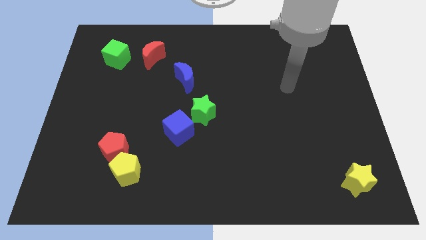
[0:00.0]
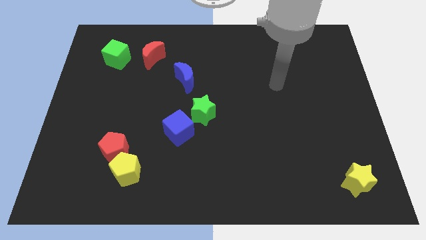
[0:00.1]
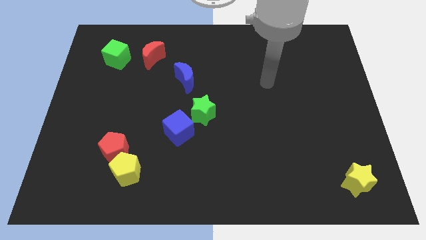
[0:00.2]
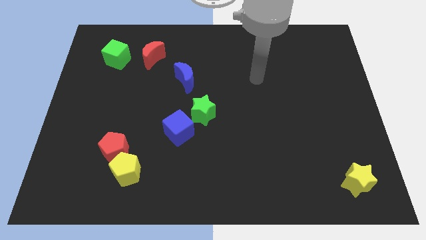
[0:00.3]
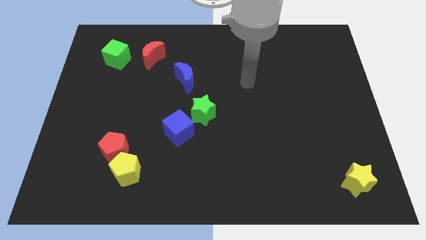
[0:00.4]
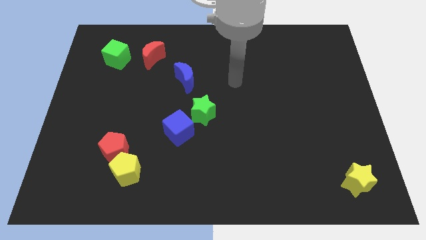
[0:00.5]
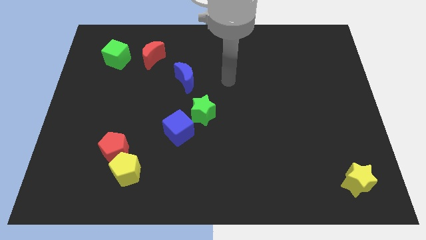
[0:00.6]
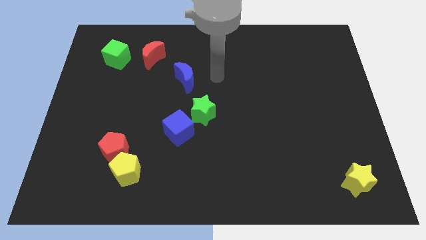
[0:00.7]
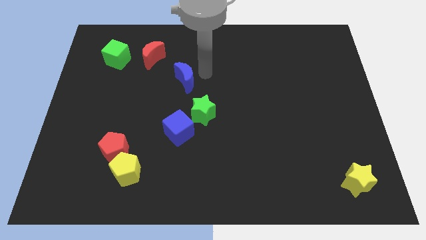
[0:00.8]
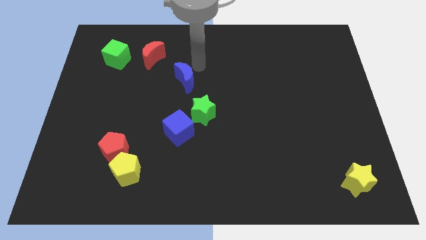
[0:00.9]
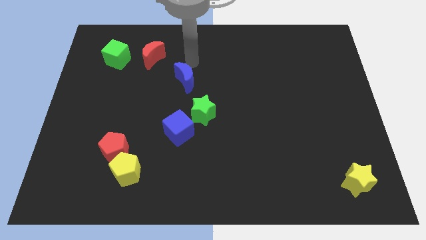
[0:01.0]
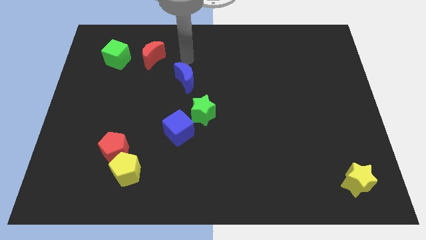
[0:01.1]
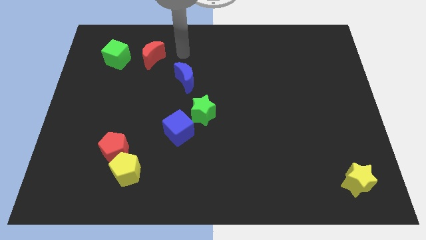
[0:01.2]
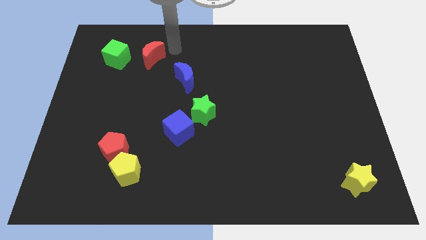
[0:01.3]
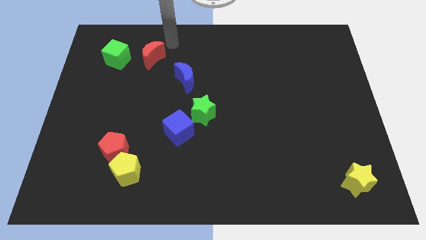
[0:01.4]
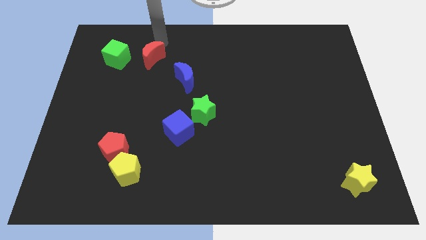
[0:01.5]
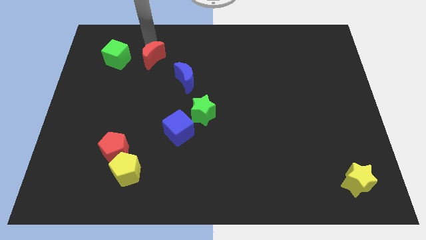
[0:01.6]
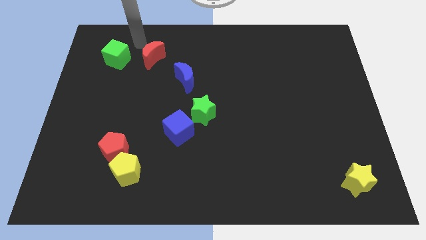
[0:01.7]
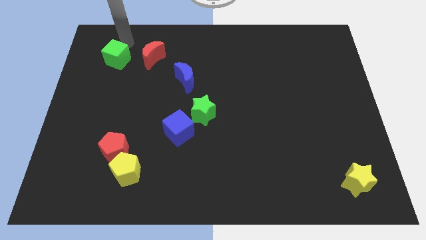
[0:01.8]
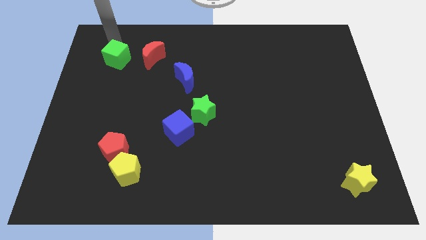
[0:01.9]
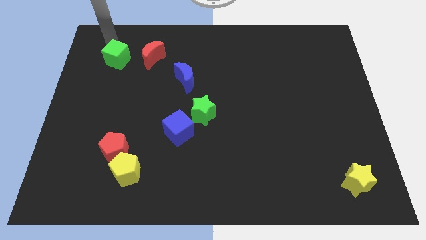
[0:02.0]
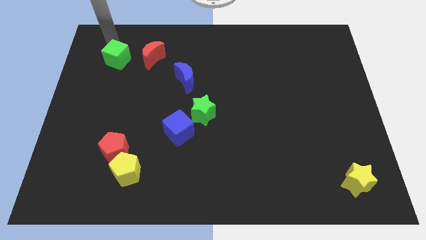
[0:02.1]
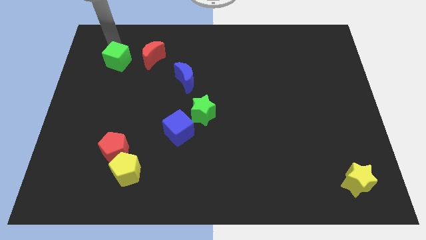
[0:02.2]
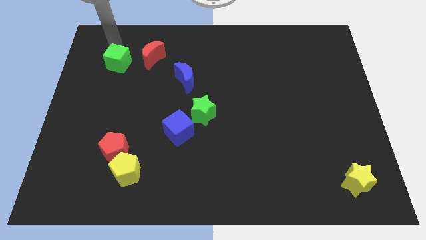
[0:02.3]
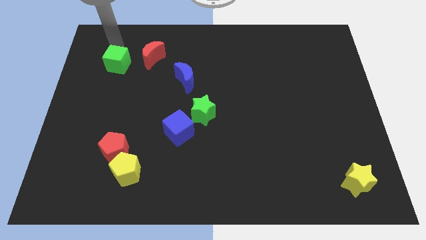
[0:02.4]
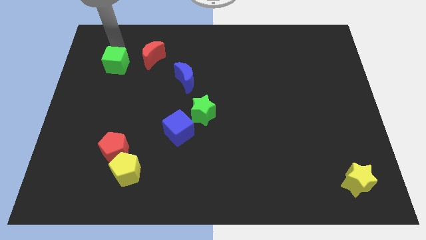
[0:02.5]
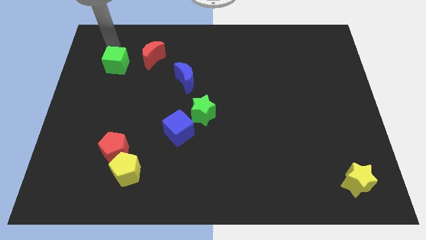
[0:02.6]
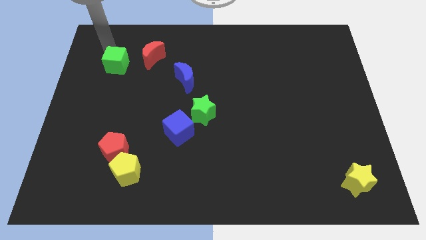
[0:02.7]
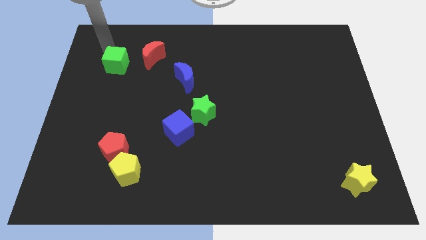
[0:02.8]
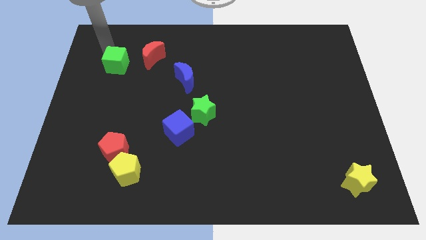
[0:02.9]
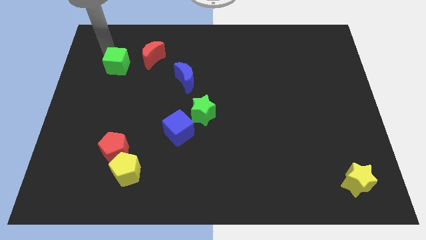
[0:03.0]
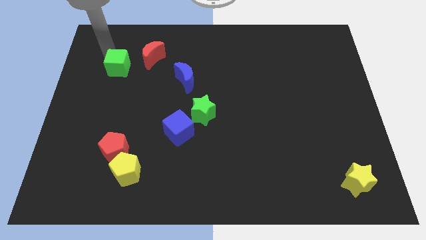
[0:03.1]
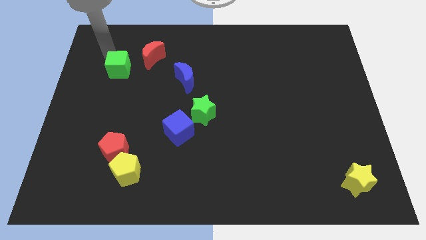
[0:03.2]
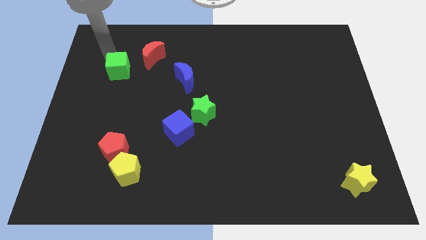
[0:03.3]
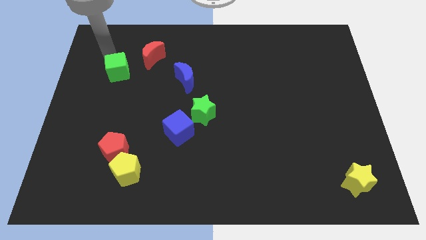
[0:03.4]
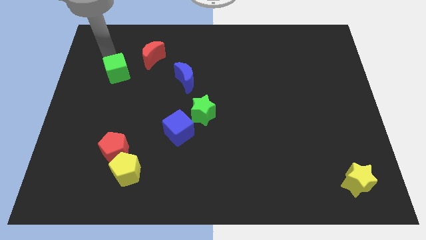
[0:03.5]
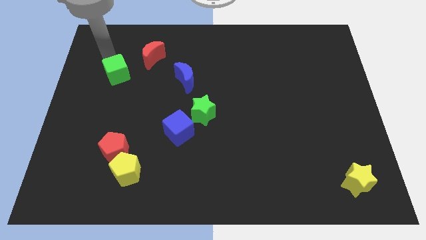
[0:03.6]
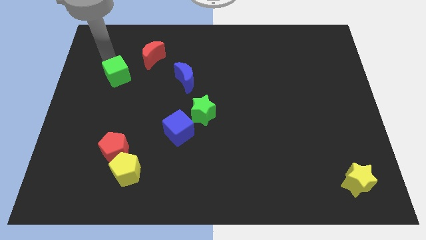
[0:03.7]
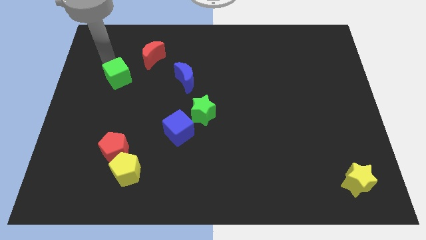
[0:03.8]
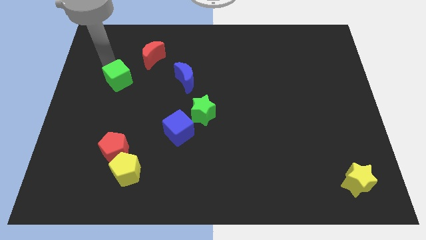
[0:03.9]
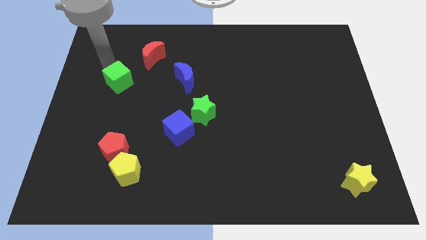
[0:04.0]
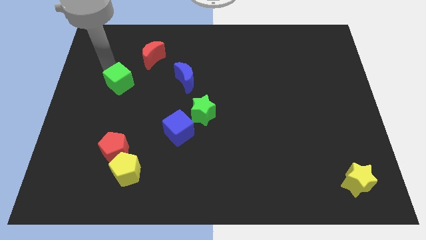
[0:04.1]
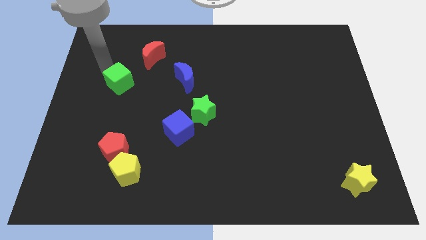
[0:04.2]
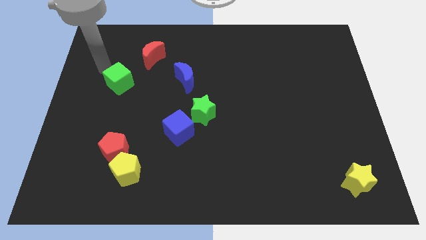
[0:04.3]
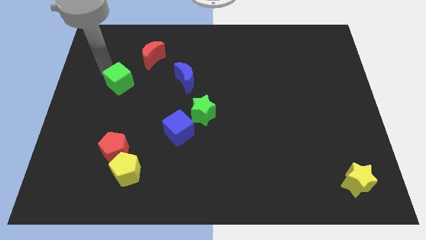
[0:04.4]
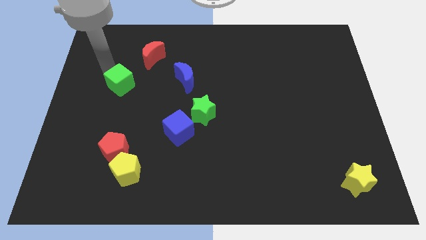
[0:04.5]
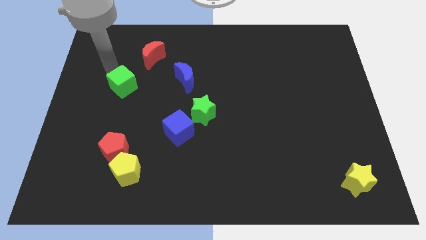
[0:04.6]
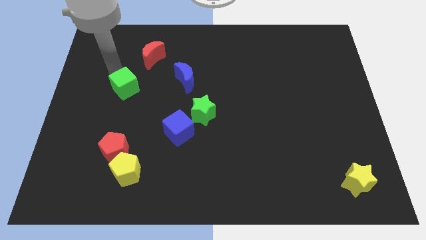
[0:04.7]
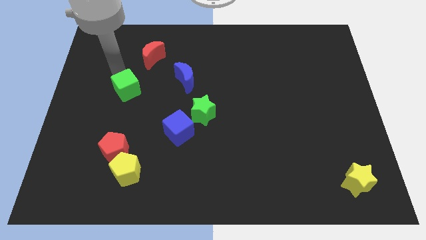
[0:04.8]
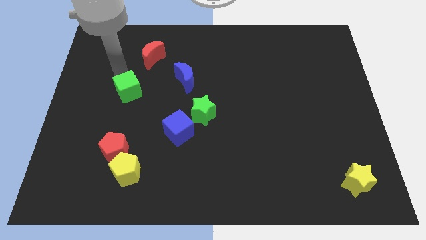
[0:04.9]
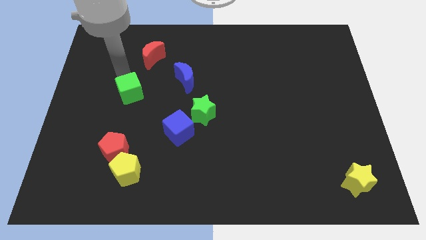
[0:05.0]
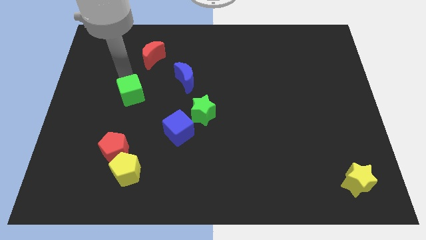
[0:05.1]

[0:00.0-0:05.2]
move the green cube to the top of the red pentagon

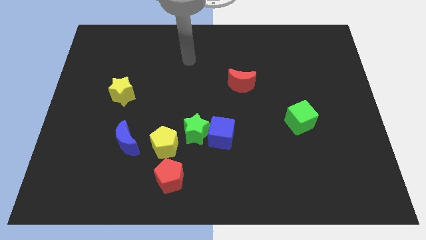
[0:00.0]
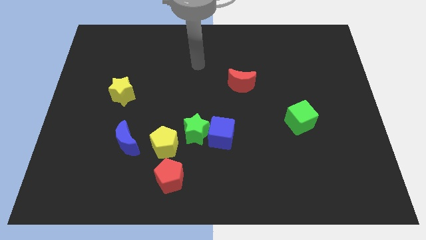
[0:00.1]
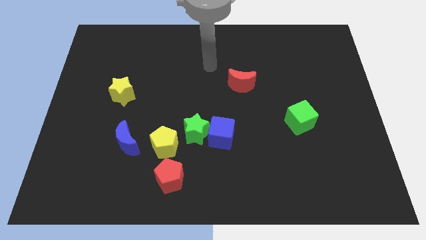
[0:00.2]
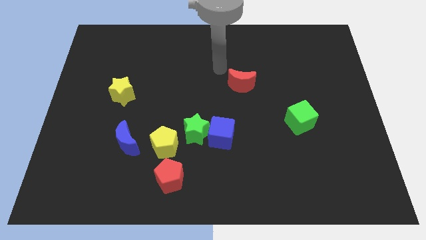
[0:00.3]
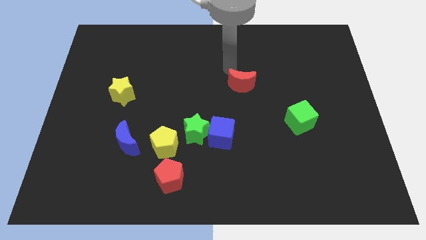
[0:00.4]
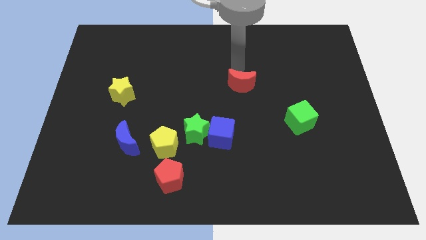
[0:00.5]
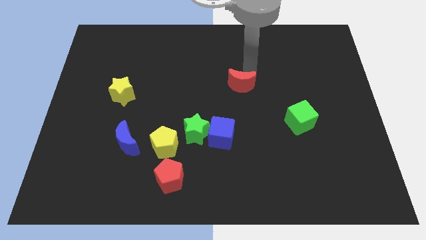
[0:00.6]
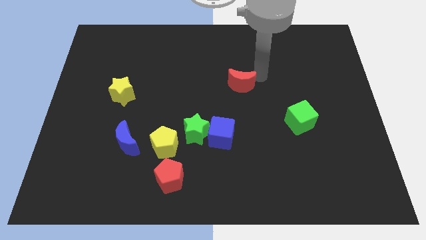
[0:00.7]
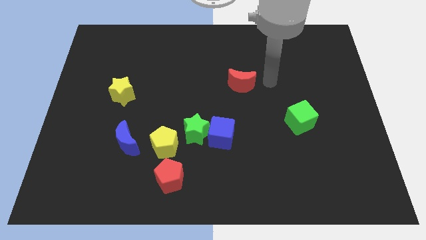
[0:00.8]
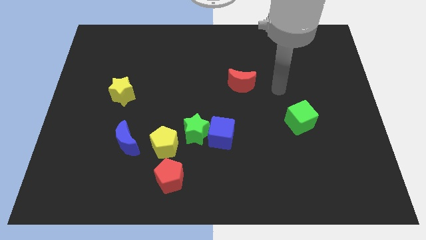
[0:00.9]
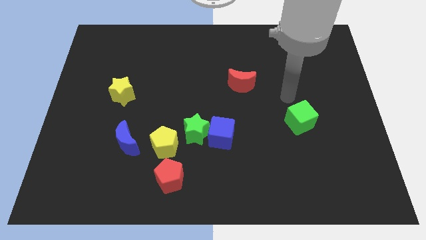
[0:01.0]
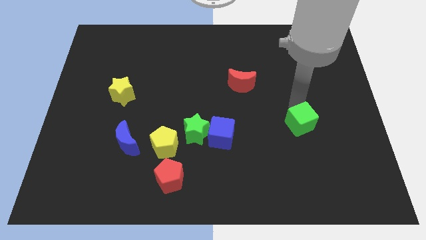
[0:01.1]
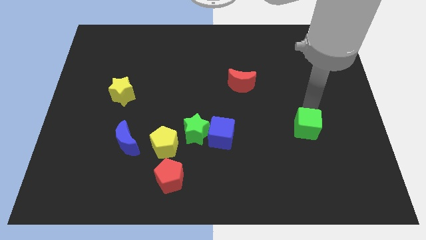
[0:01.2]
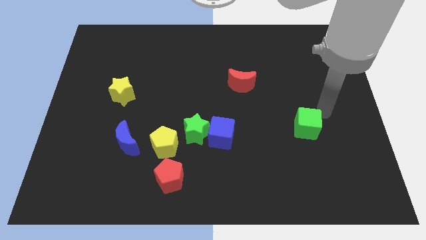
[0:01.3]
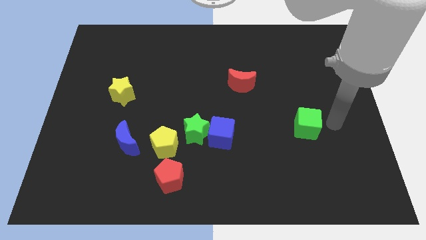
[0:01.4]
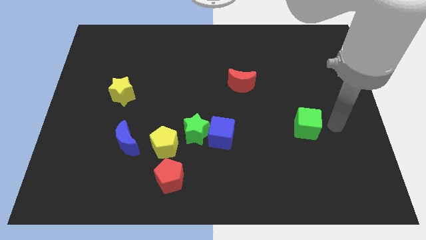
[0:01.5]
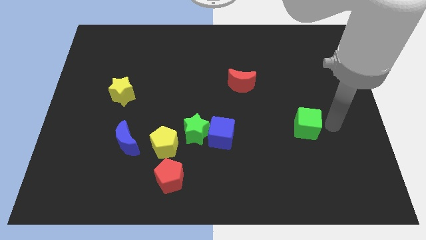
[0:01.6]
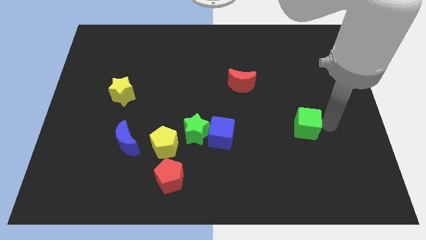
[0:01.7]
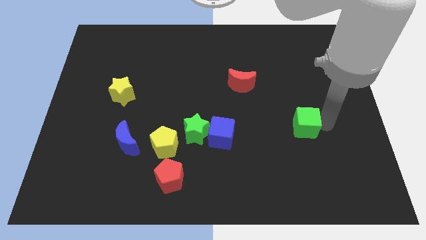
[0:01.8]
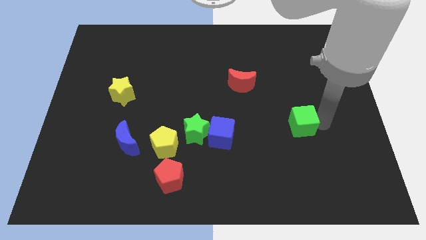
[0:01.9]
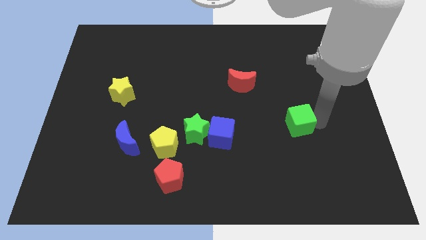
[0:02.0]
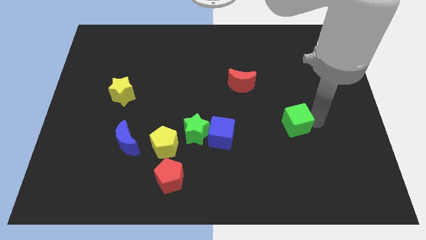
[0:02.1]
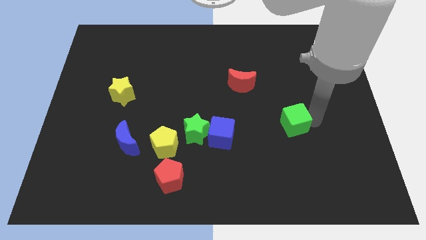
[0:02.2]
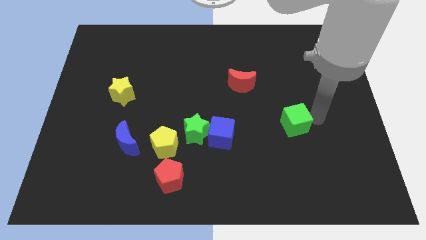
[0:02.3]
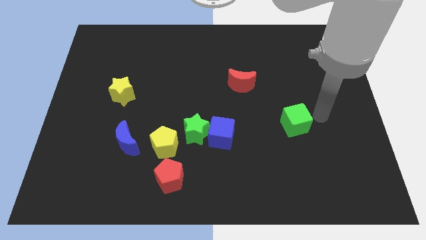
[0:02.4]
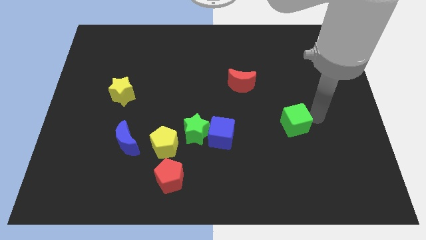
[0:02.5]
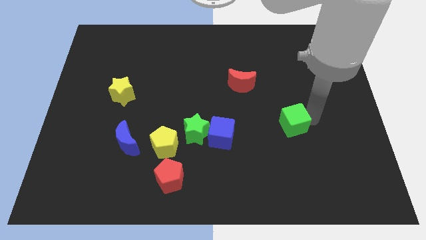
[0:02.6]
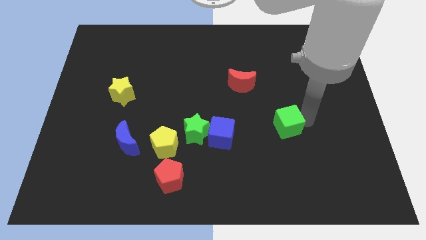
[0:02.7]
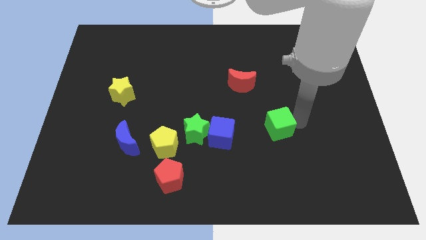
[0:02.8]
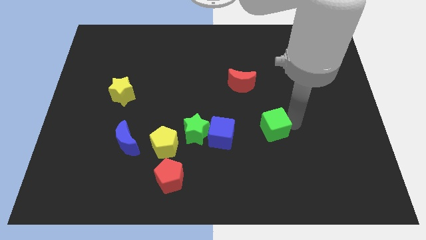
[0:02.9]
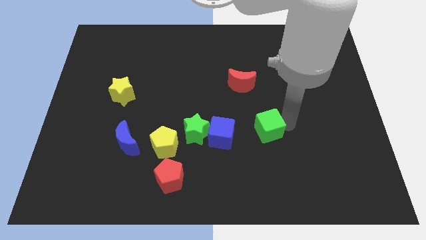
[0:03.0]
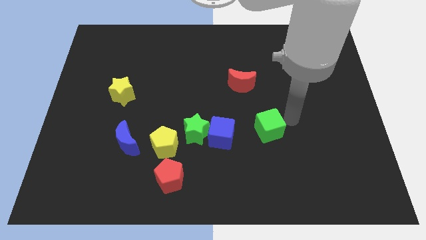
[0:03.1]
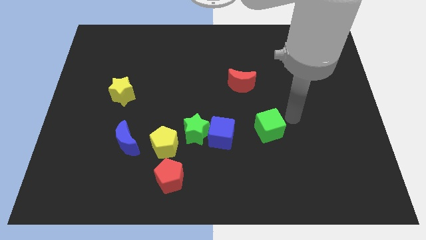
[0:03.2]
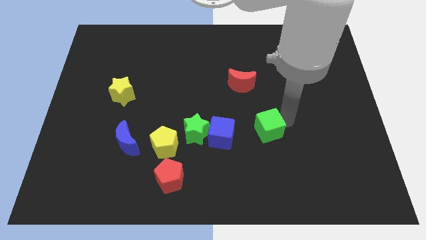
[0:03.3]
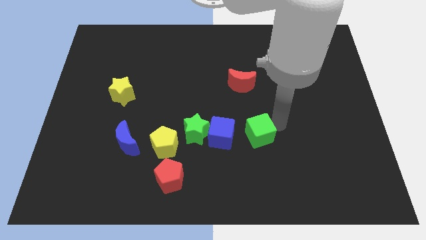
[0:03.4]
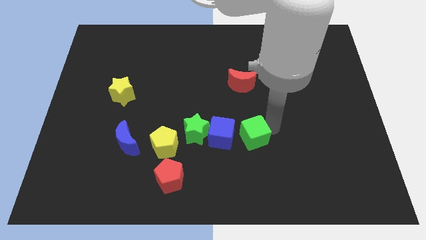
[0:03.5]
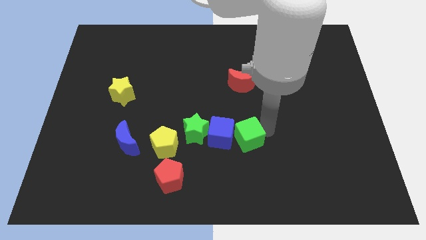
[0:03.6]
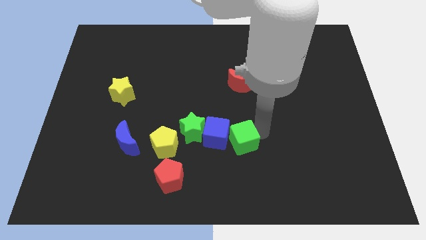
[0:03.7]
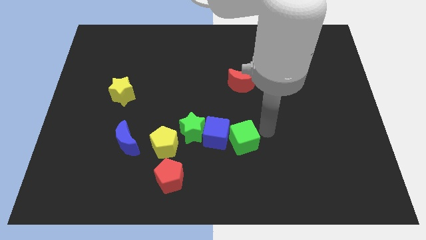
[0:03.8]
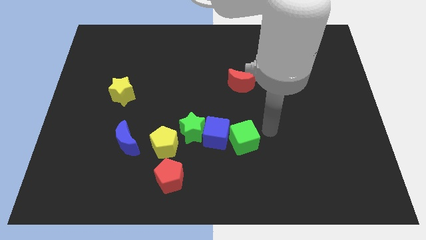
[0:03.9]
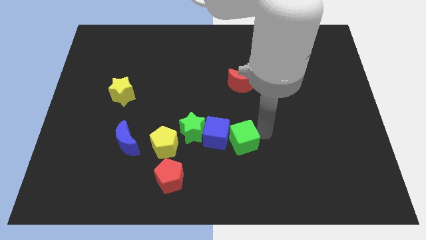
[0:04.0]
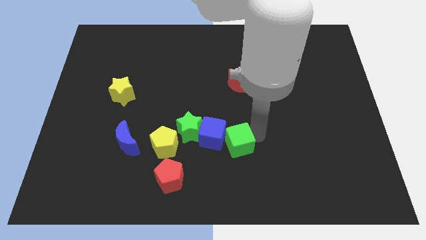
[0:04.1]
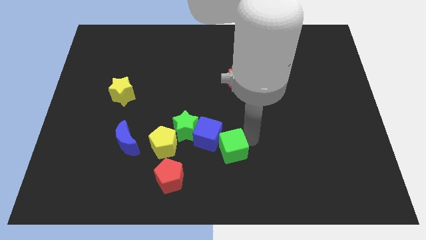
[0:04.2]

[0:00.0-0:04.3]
move the green cube to the bottom right of the green star
